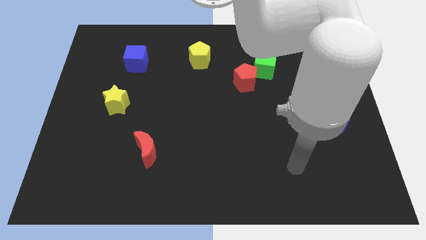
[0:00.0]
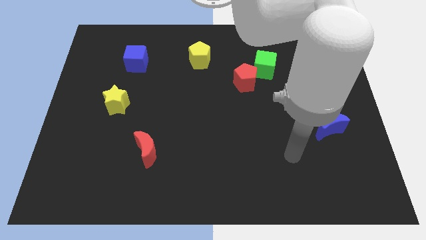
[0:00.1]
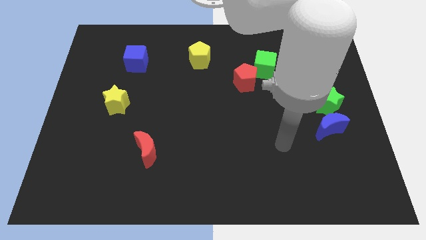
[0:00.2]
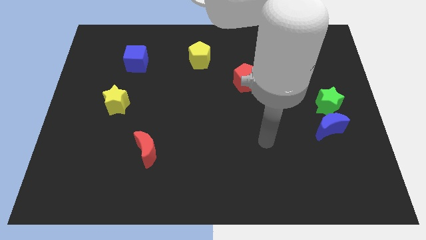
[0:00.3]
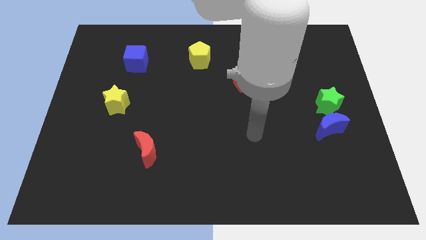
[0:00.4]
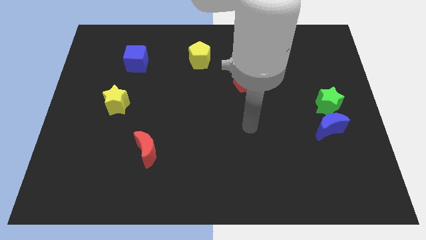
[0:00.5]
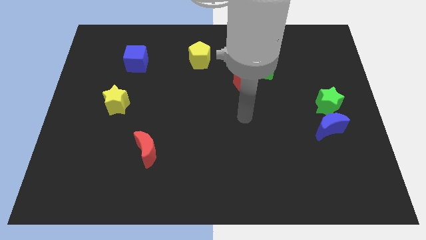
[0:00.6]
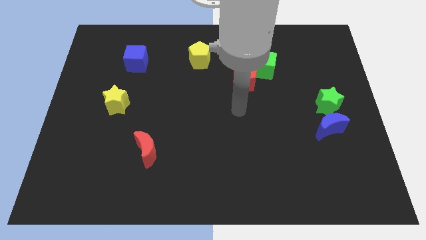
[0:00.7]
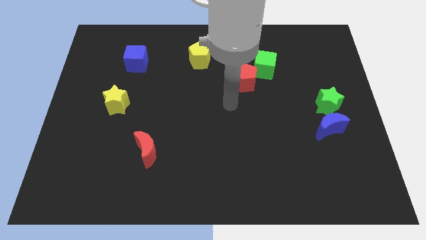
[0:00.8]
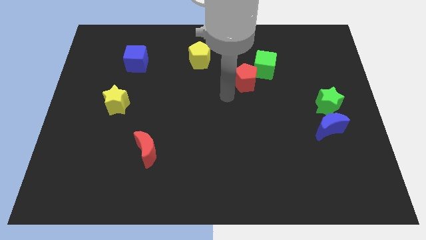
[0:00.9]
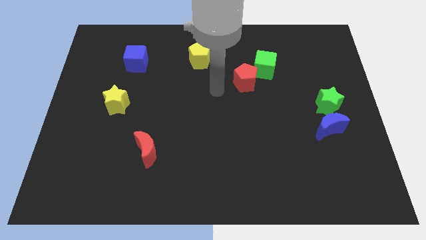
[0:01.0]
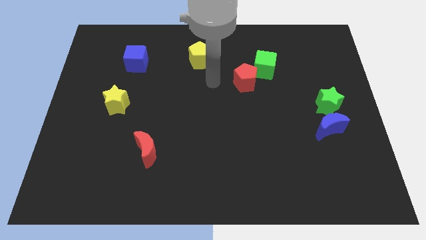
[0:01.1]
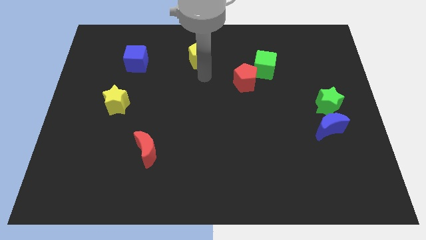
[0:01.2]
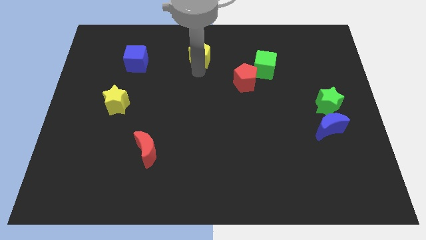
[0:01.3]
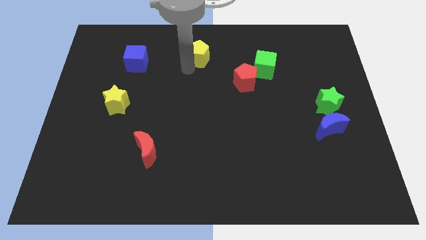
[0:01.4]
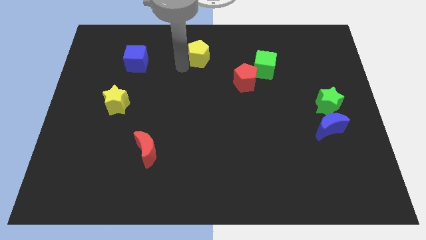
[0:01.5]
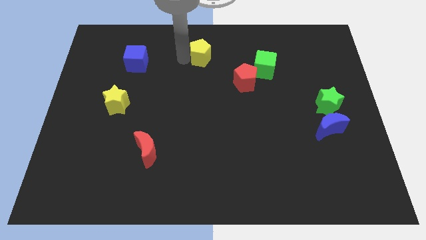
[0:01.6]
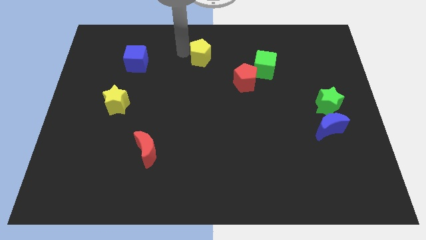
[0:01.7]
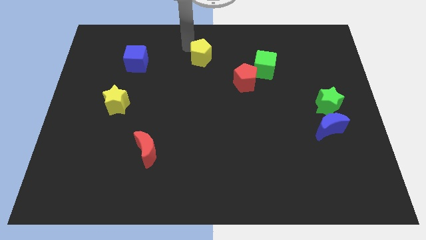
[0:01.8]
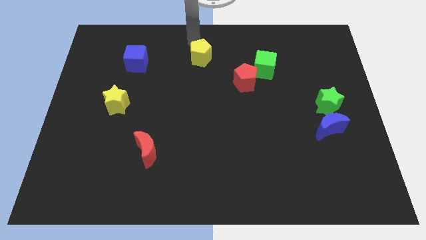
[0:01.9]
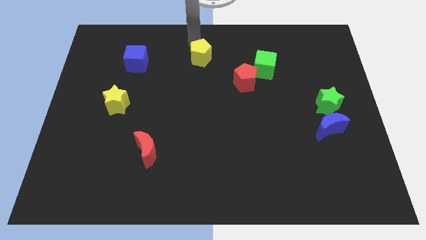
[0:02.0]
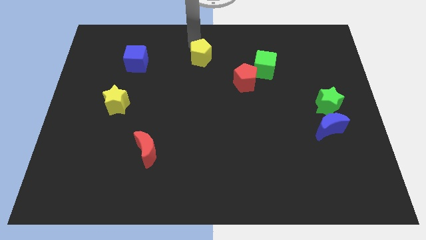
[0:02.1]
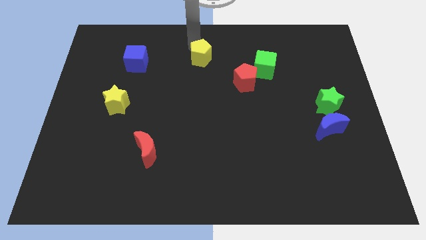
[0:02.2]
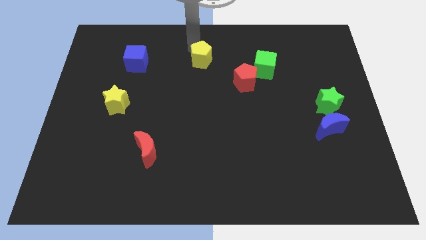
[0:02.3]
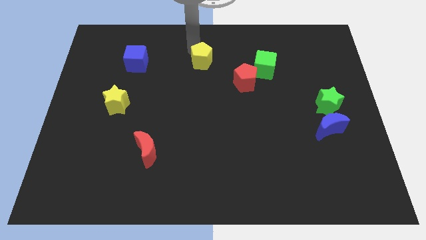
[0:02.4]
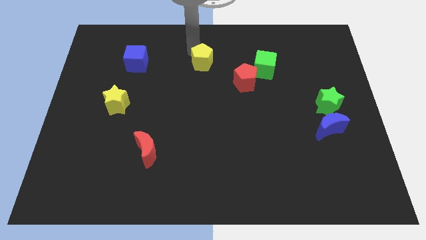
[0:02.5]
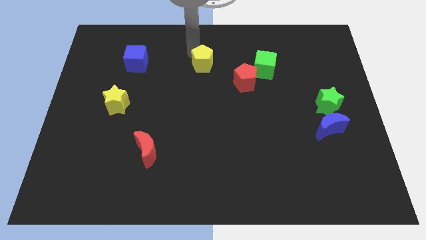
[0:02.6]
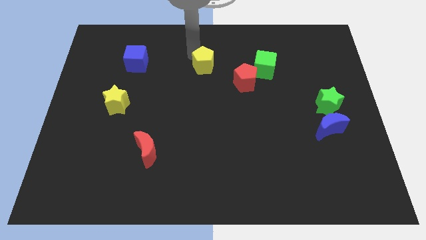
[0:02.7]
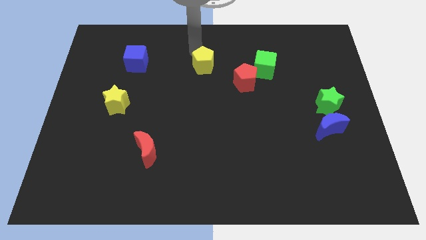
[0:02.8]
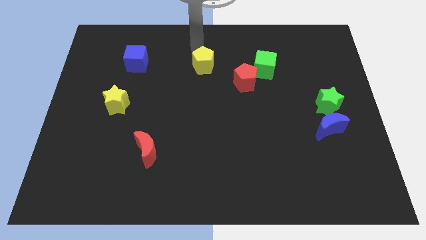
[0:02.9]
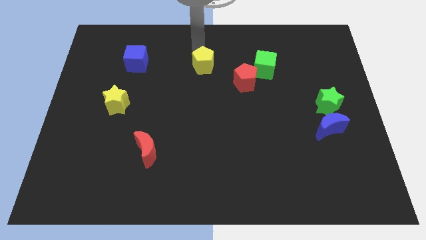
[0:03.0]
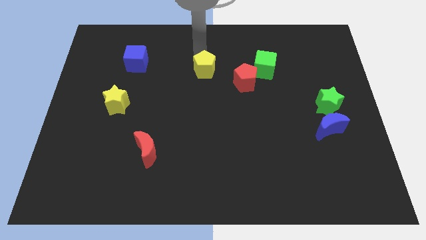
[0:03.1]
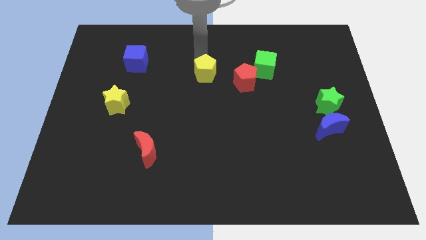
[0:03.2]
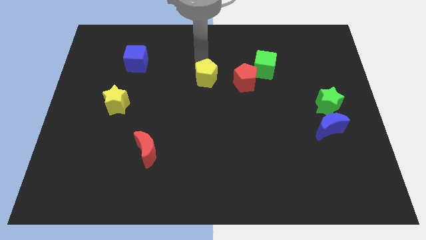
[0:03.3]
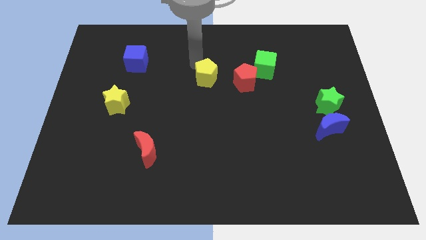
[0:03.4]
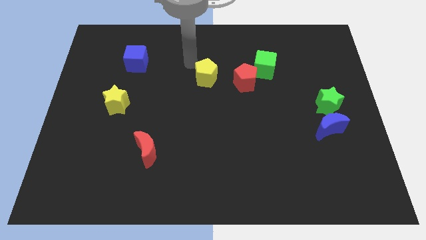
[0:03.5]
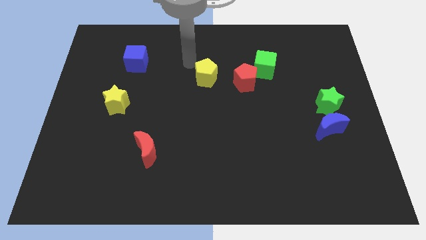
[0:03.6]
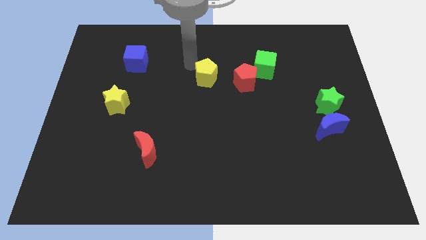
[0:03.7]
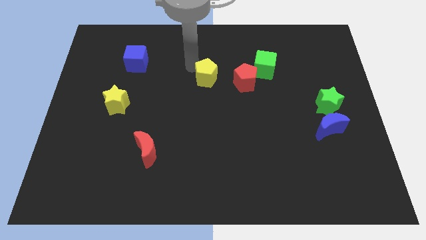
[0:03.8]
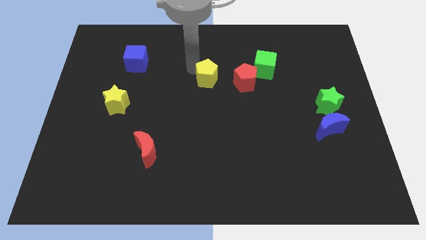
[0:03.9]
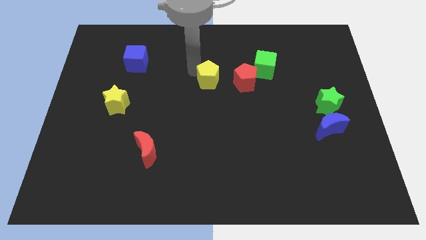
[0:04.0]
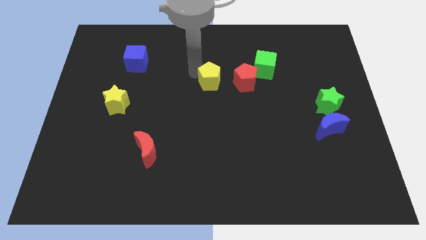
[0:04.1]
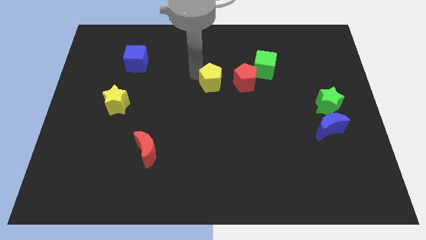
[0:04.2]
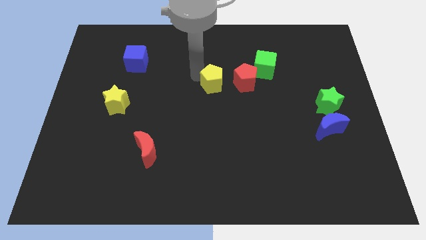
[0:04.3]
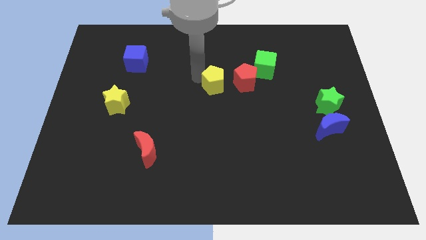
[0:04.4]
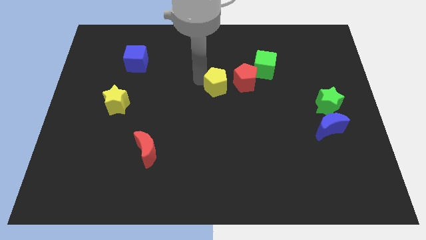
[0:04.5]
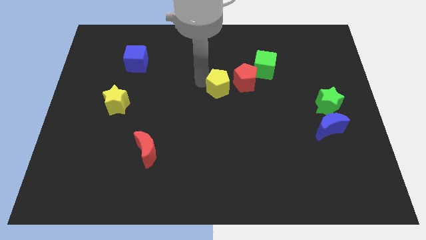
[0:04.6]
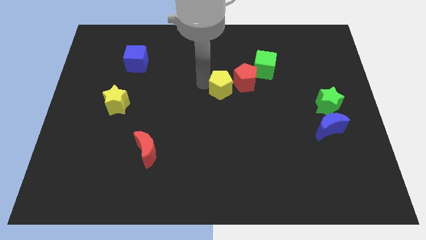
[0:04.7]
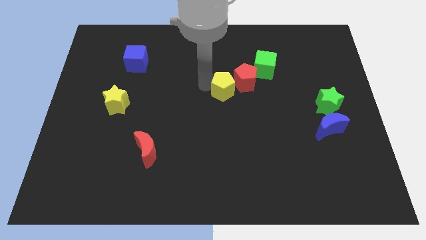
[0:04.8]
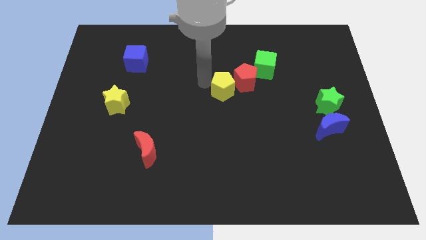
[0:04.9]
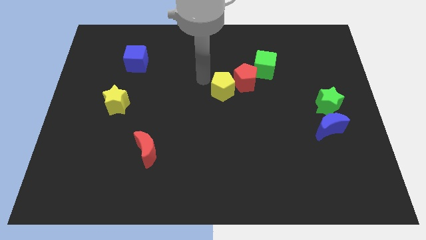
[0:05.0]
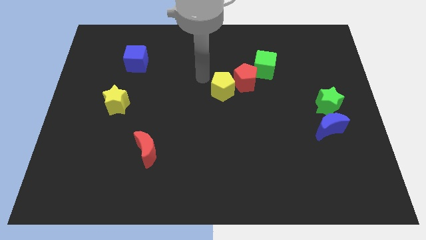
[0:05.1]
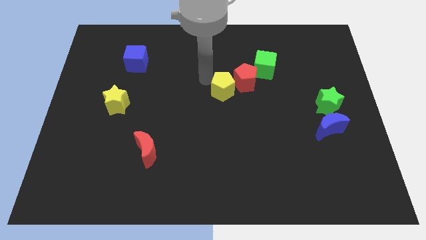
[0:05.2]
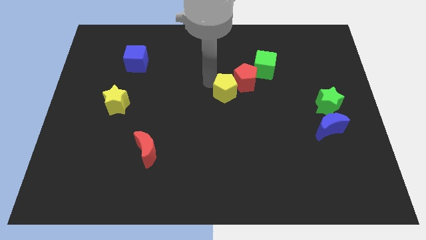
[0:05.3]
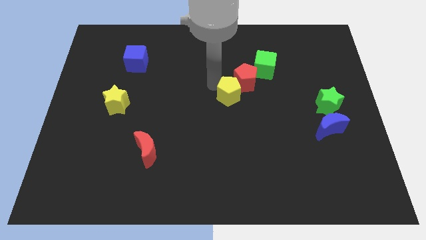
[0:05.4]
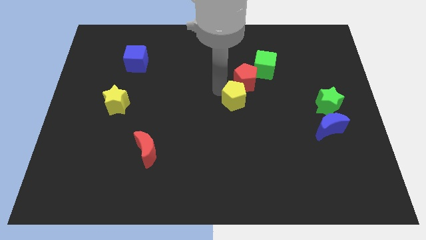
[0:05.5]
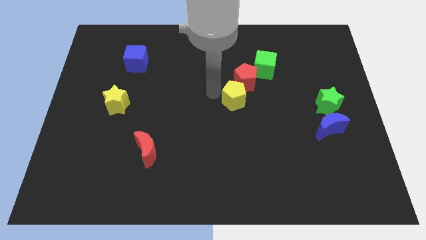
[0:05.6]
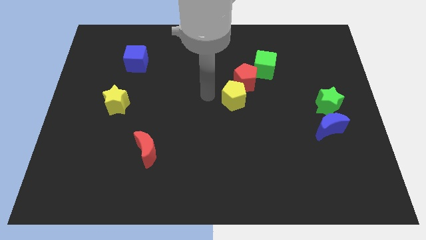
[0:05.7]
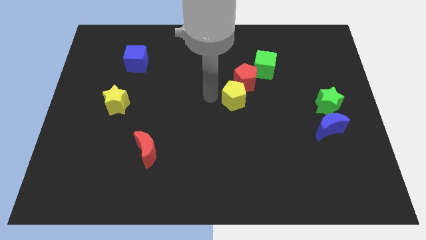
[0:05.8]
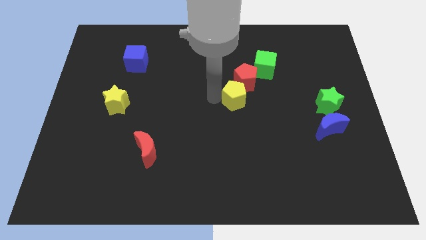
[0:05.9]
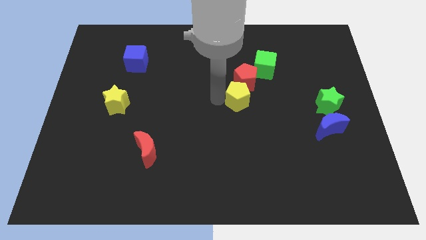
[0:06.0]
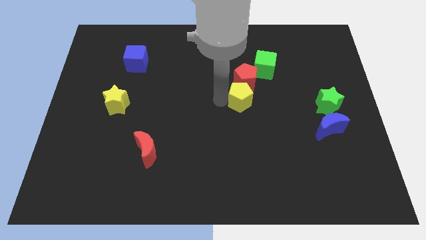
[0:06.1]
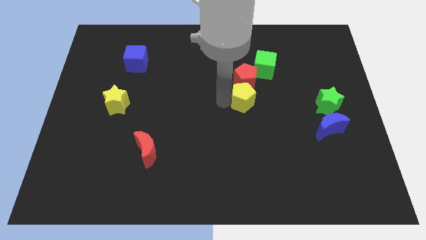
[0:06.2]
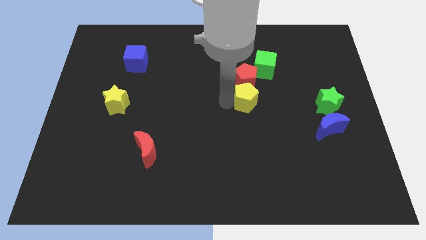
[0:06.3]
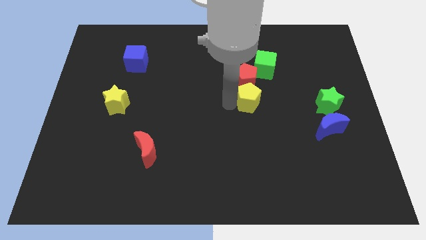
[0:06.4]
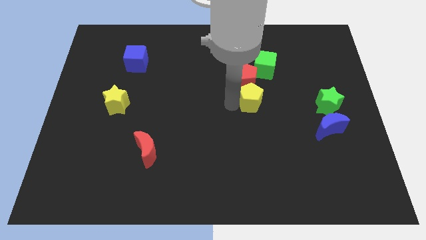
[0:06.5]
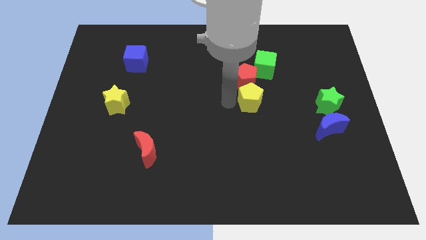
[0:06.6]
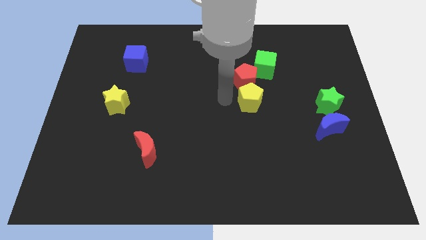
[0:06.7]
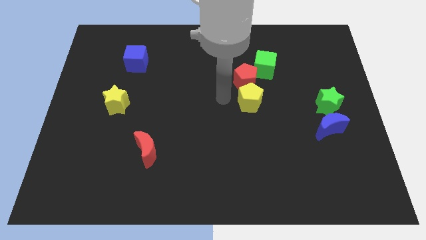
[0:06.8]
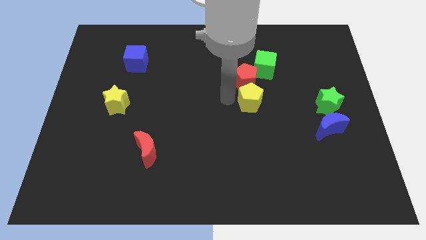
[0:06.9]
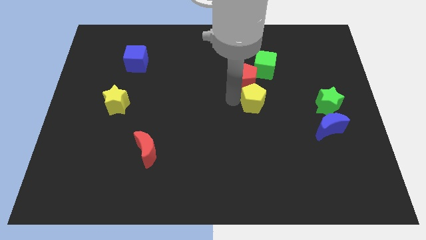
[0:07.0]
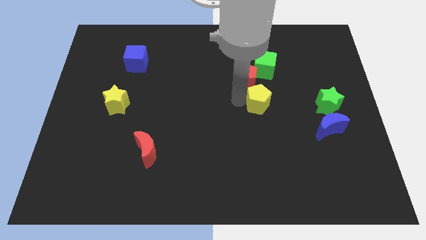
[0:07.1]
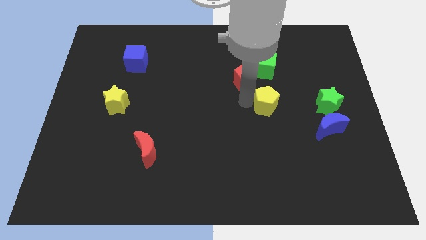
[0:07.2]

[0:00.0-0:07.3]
put the yellow pentagon left of the green star

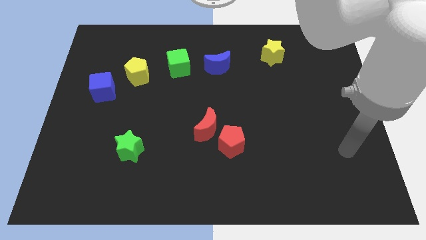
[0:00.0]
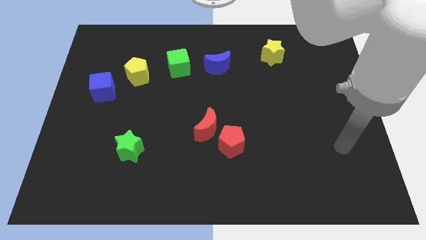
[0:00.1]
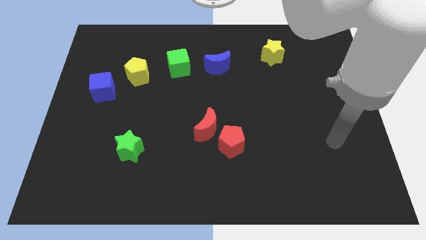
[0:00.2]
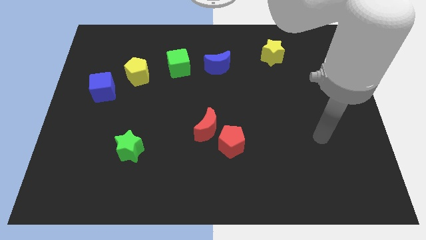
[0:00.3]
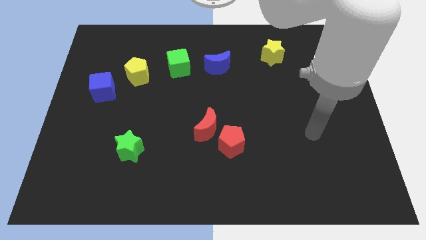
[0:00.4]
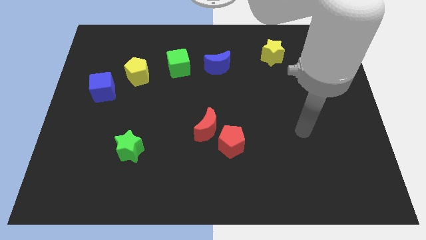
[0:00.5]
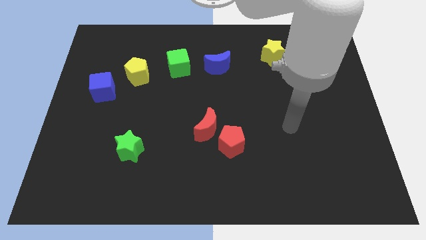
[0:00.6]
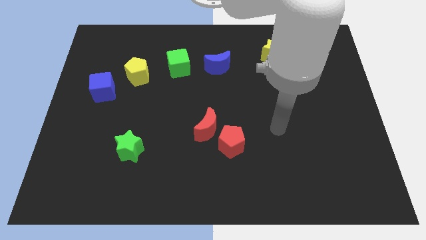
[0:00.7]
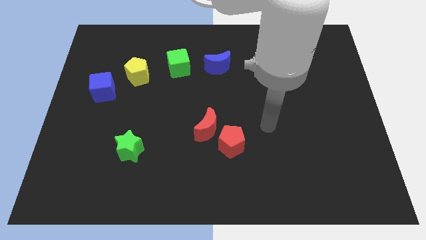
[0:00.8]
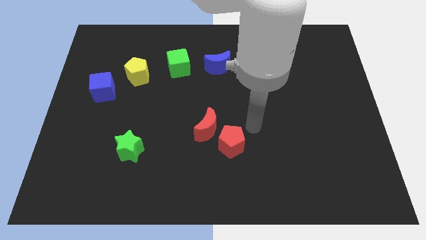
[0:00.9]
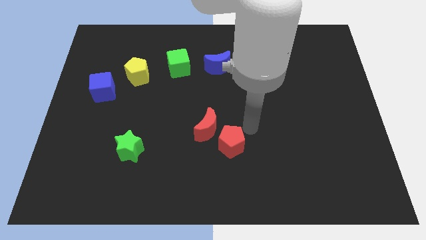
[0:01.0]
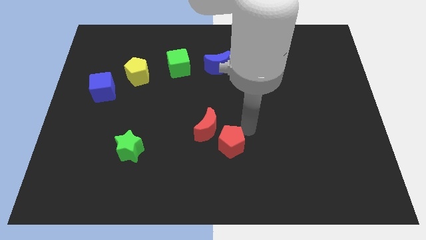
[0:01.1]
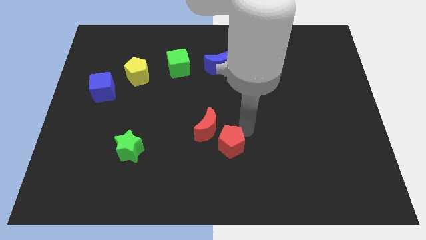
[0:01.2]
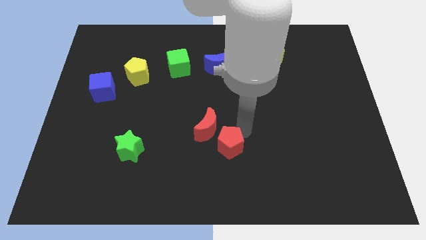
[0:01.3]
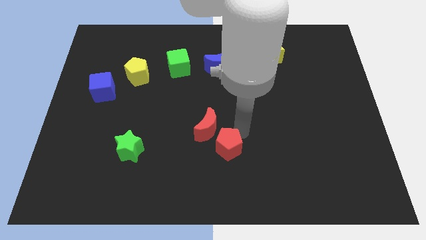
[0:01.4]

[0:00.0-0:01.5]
push the red pentagon to the bottom side of the red moon
